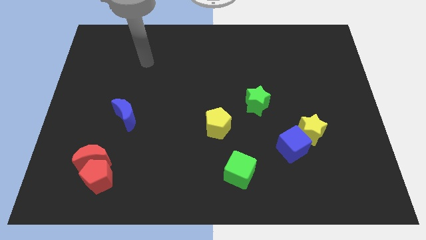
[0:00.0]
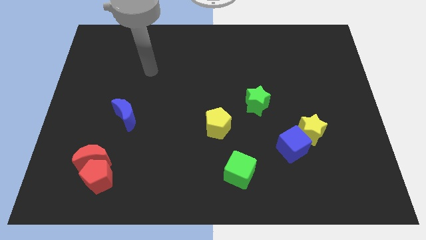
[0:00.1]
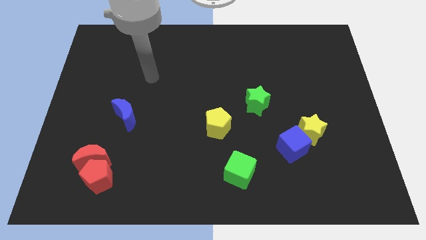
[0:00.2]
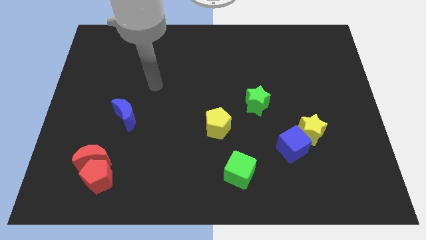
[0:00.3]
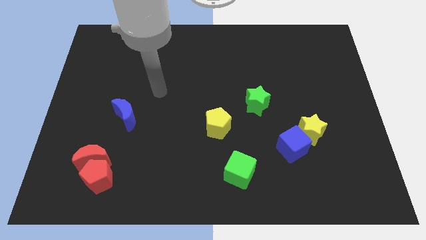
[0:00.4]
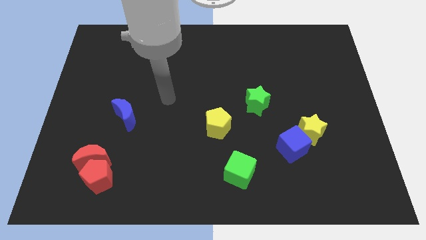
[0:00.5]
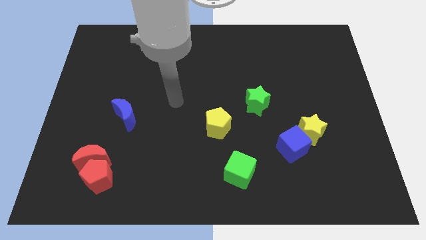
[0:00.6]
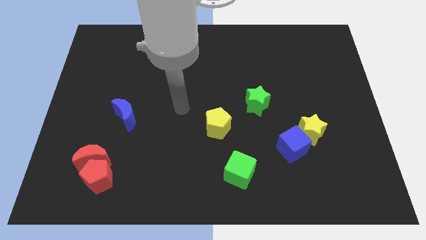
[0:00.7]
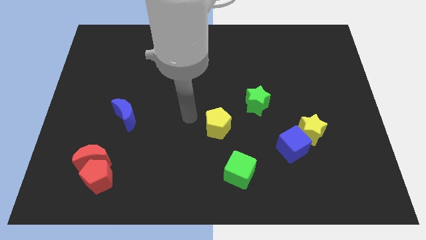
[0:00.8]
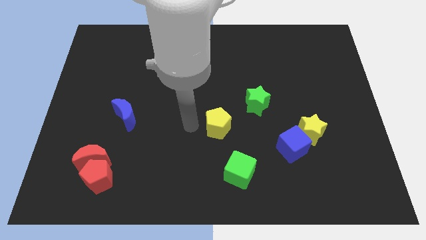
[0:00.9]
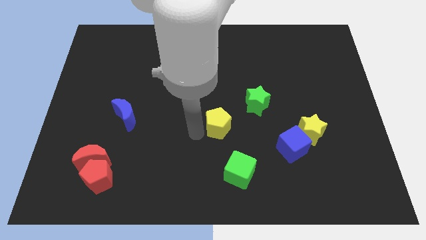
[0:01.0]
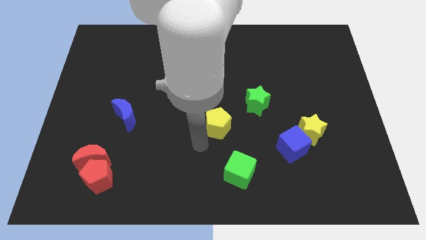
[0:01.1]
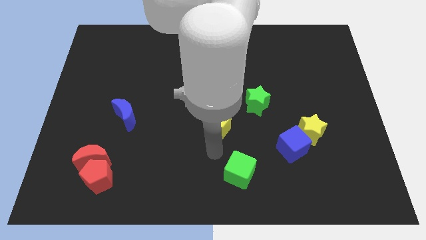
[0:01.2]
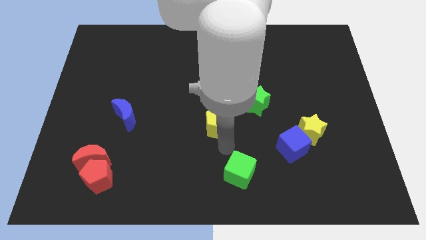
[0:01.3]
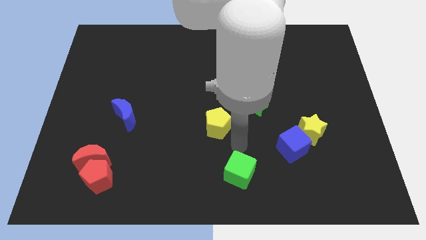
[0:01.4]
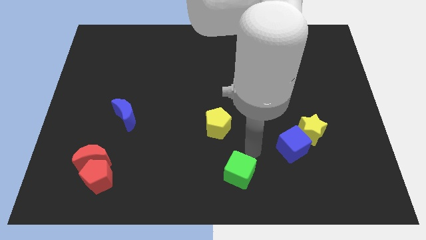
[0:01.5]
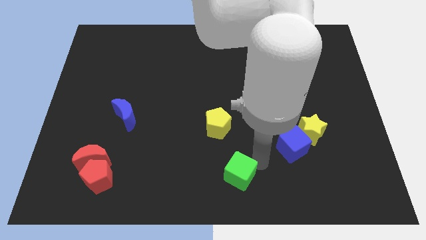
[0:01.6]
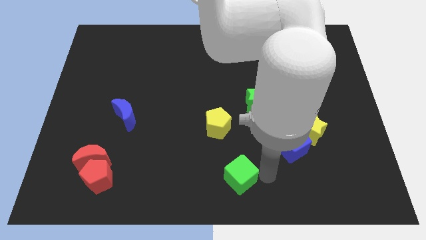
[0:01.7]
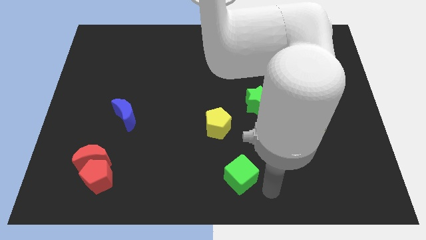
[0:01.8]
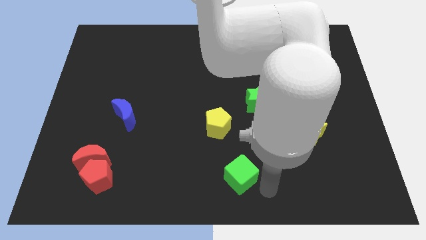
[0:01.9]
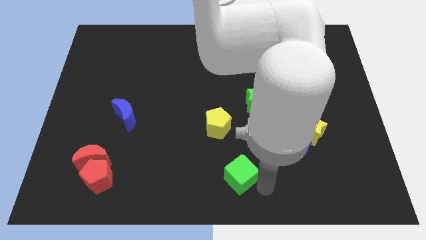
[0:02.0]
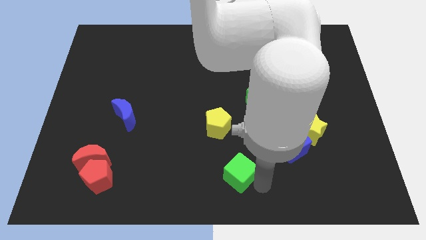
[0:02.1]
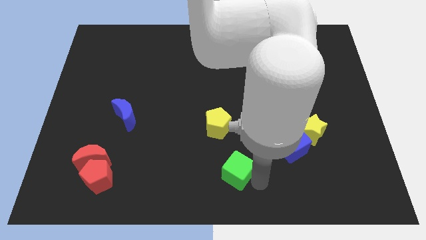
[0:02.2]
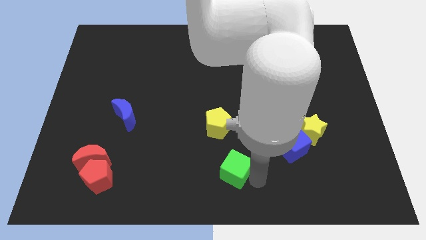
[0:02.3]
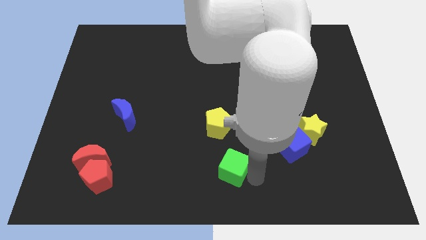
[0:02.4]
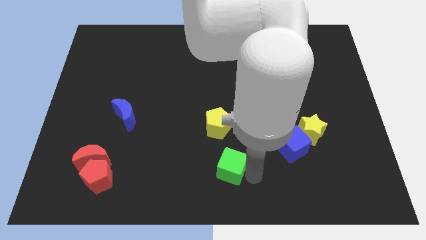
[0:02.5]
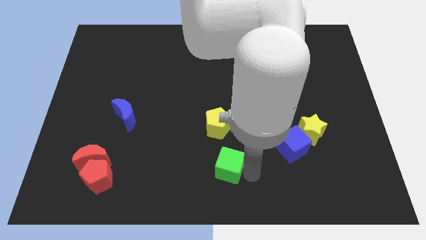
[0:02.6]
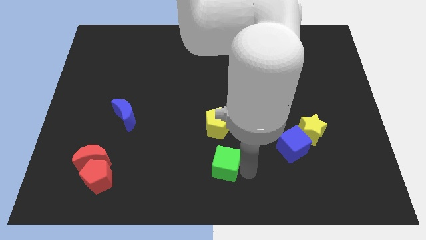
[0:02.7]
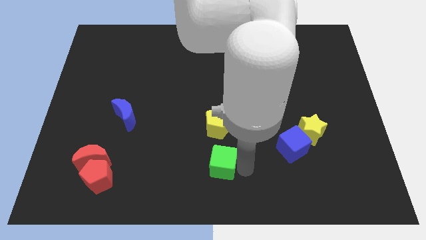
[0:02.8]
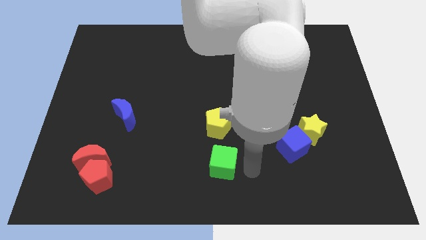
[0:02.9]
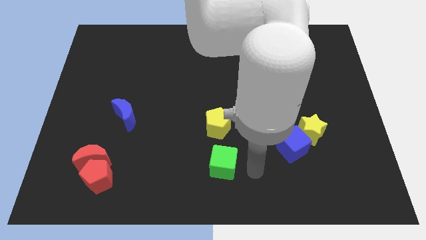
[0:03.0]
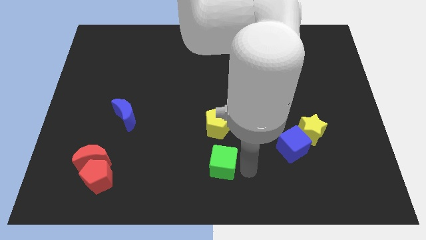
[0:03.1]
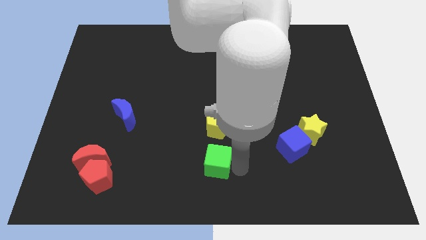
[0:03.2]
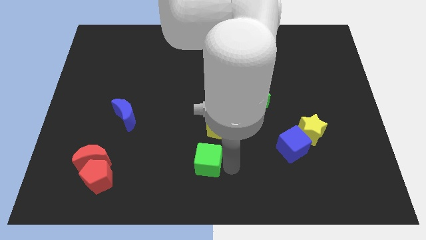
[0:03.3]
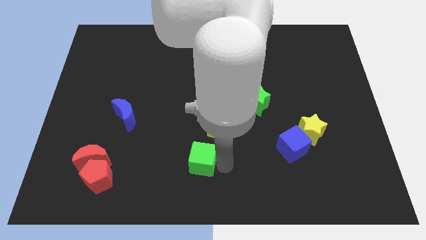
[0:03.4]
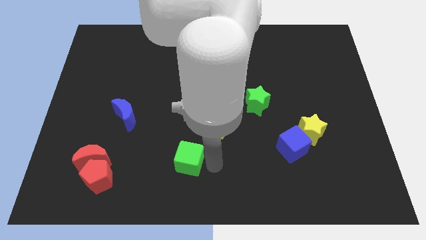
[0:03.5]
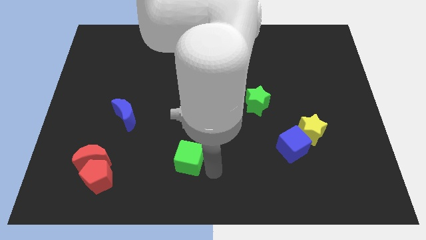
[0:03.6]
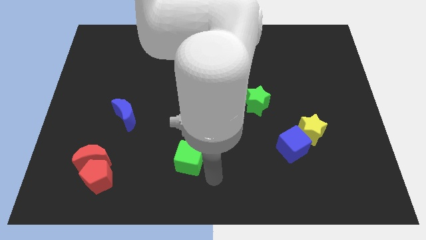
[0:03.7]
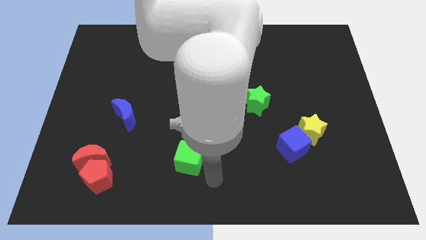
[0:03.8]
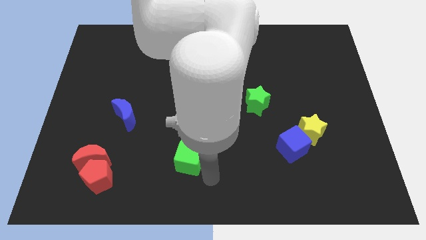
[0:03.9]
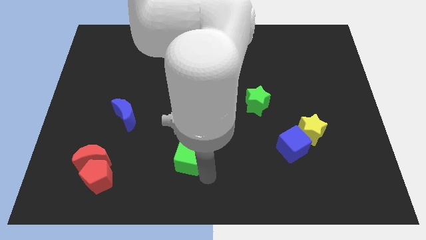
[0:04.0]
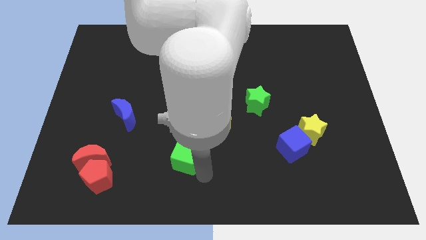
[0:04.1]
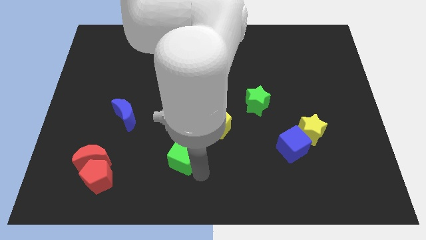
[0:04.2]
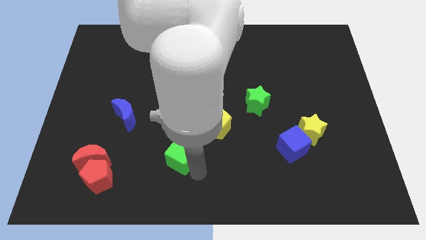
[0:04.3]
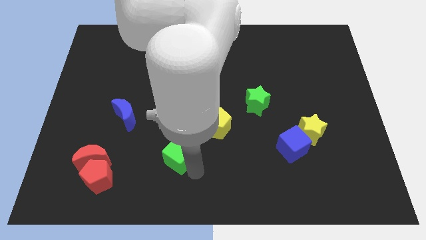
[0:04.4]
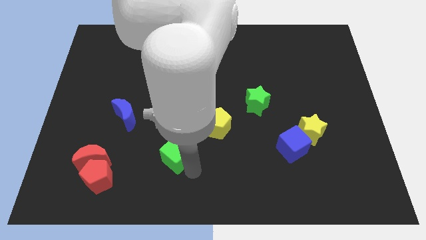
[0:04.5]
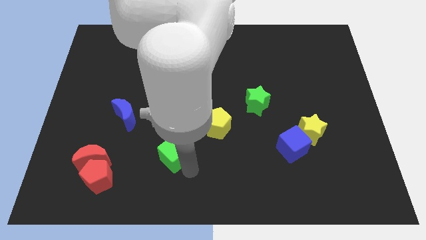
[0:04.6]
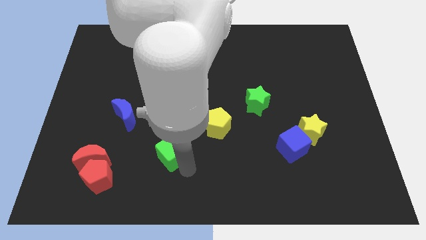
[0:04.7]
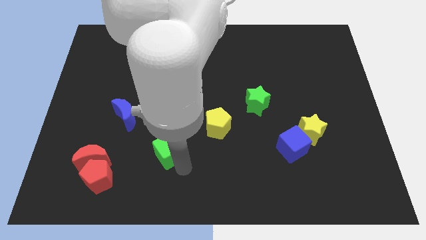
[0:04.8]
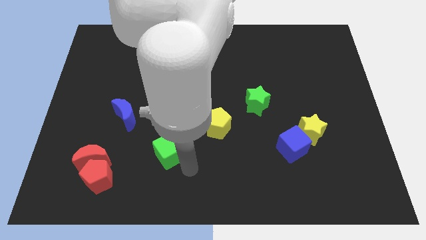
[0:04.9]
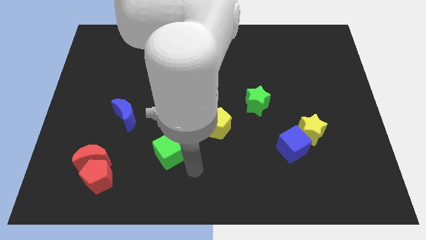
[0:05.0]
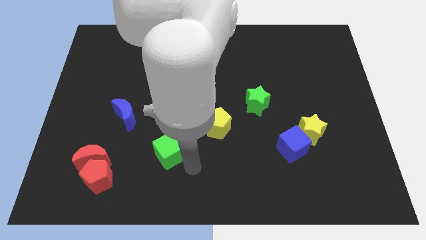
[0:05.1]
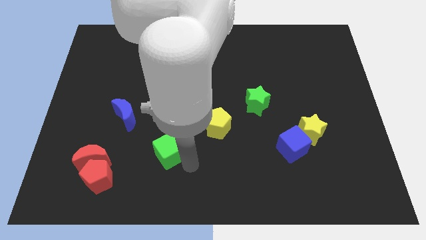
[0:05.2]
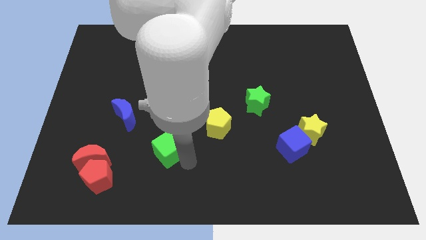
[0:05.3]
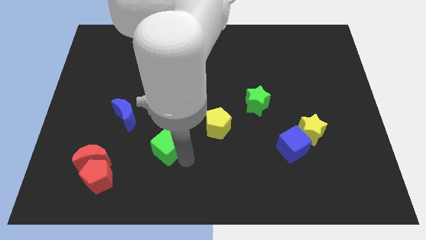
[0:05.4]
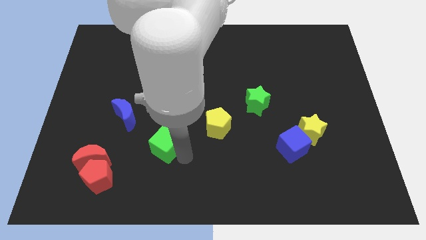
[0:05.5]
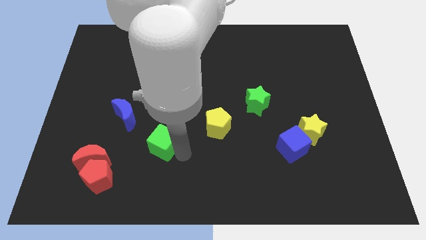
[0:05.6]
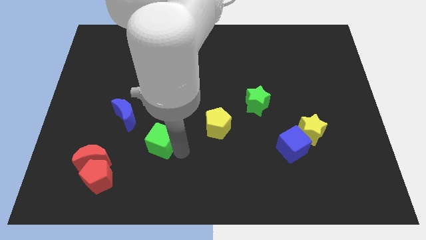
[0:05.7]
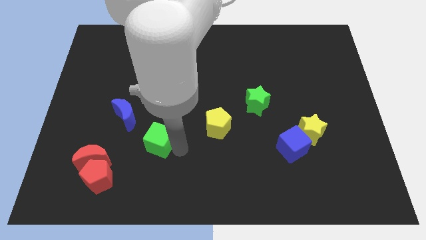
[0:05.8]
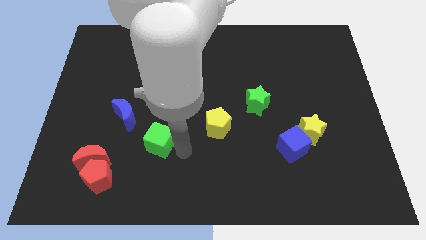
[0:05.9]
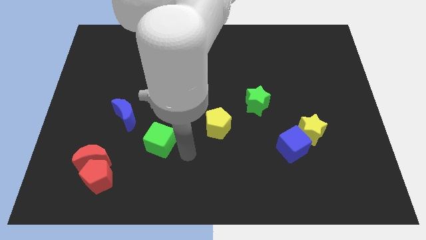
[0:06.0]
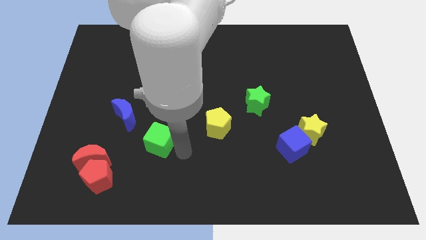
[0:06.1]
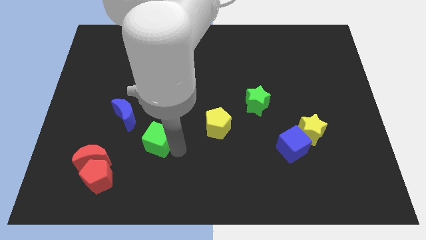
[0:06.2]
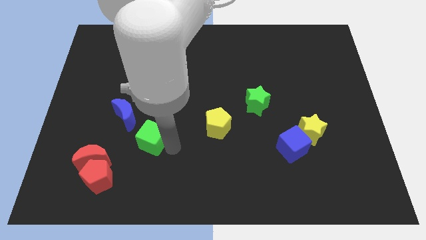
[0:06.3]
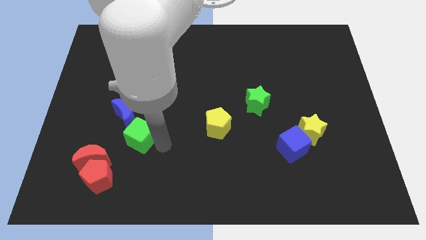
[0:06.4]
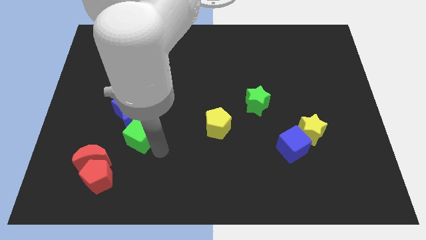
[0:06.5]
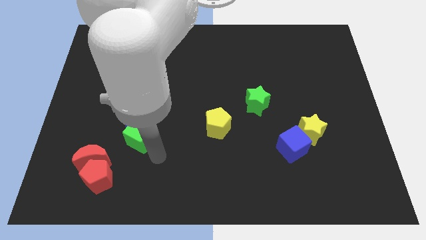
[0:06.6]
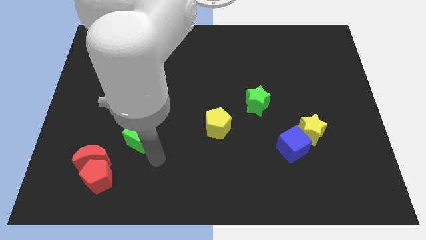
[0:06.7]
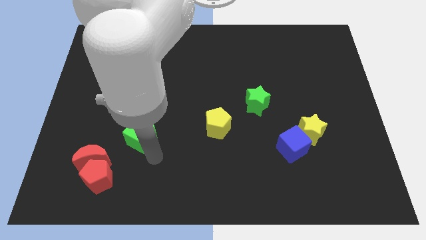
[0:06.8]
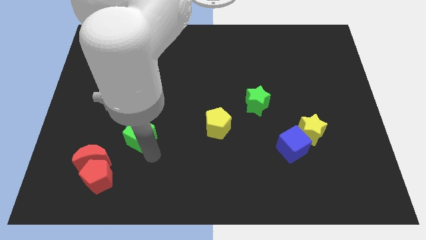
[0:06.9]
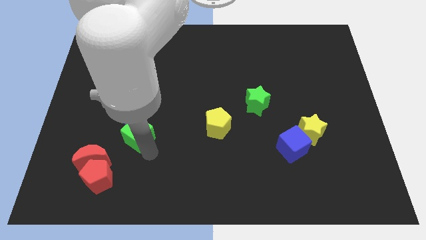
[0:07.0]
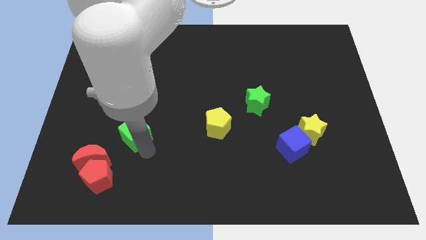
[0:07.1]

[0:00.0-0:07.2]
put the green cube next to the blue moon
